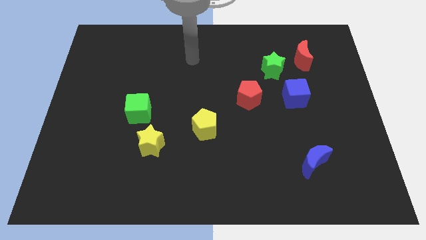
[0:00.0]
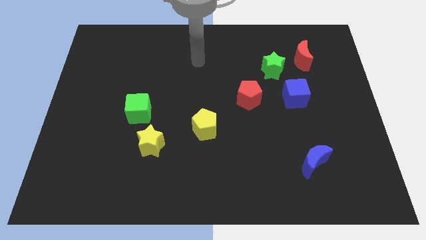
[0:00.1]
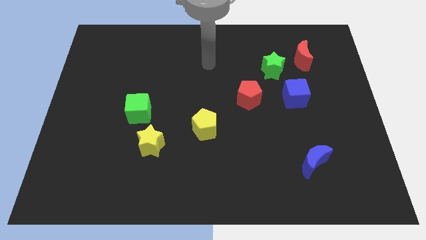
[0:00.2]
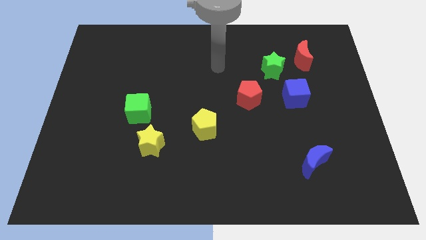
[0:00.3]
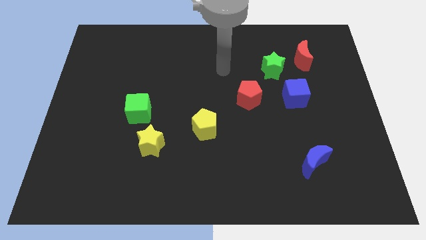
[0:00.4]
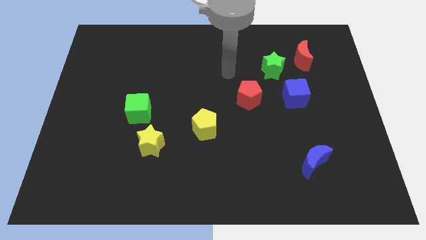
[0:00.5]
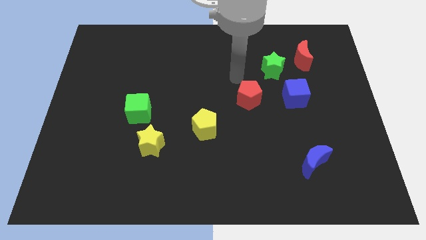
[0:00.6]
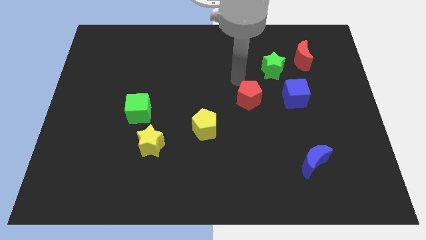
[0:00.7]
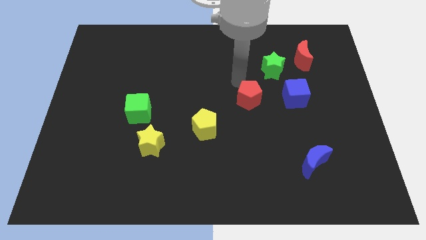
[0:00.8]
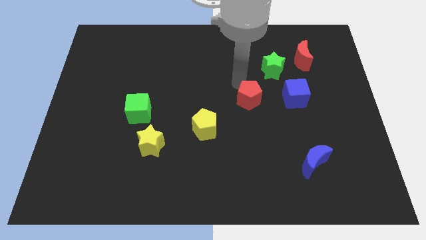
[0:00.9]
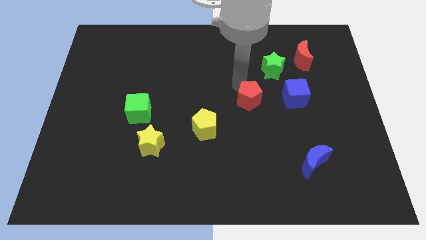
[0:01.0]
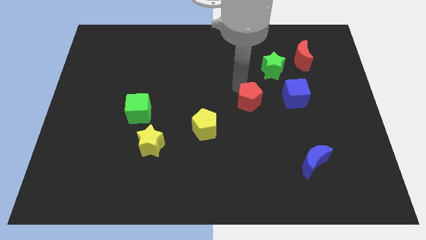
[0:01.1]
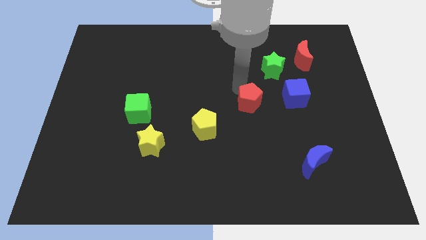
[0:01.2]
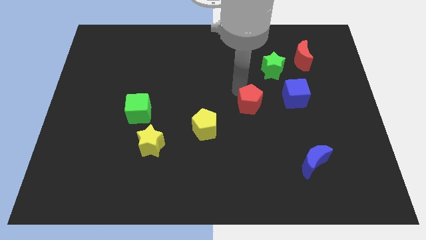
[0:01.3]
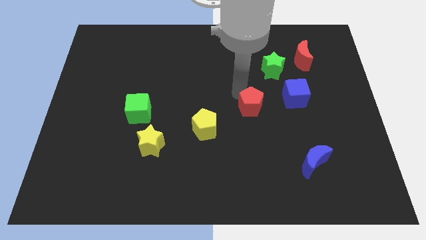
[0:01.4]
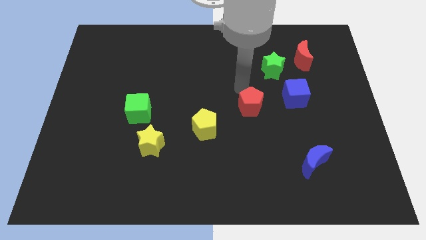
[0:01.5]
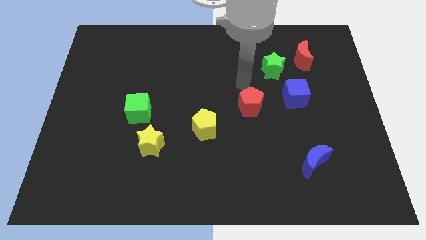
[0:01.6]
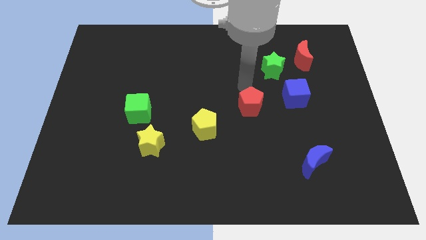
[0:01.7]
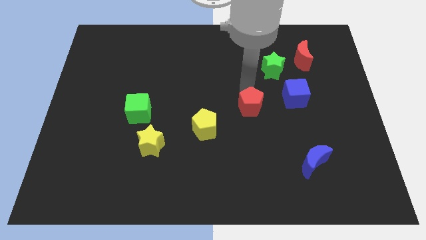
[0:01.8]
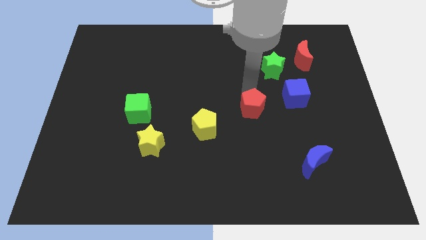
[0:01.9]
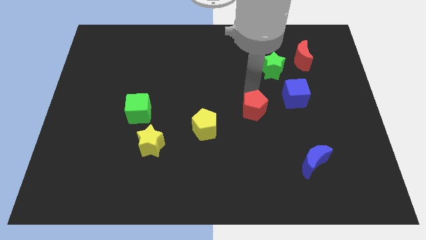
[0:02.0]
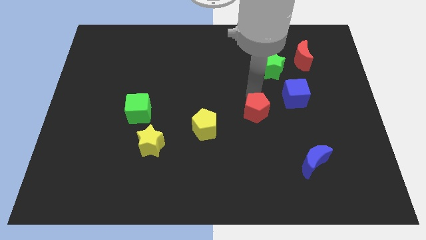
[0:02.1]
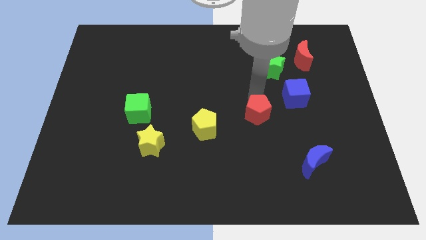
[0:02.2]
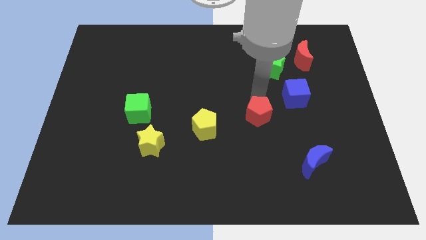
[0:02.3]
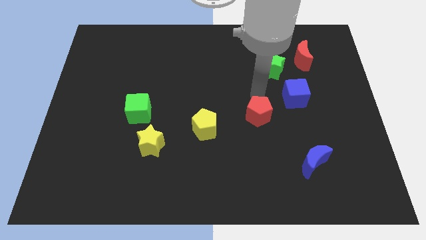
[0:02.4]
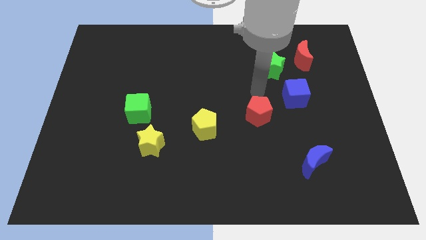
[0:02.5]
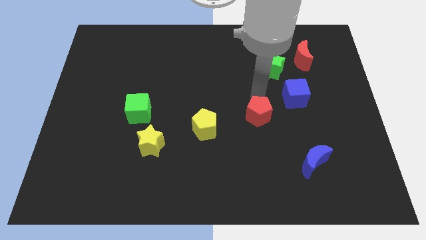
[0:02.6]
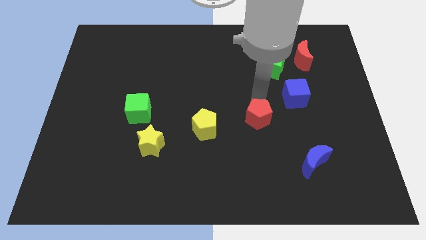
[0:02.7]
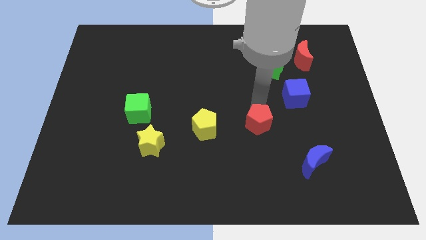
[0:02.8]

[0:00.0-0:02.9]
push the red pentagon somewhat down

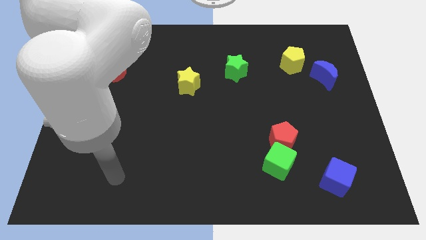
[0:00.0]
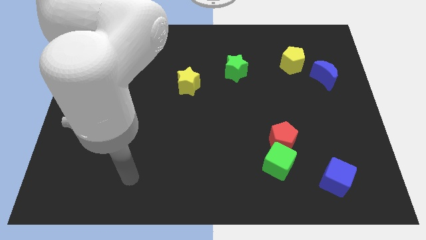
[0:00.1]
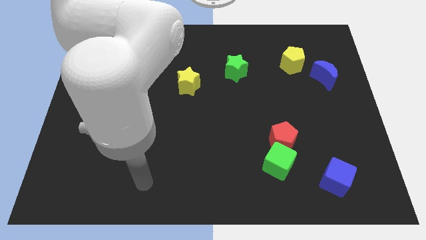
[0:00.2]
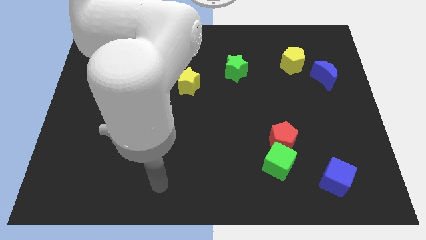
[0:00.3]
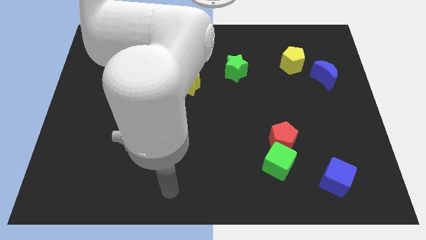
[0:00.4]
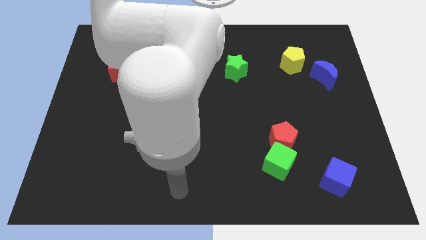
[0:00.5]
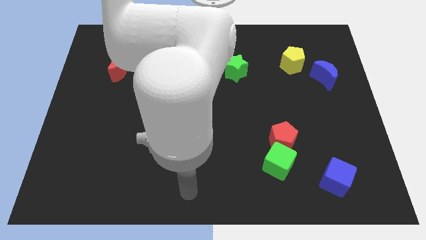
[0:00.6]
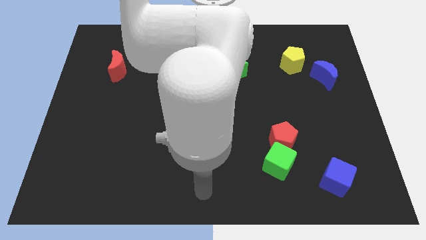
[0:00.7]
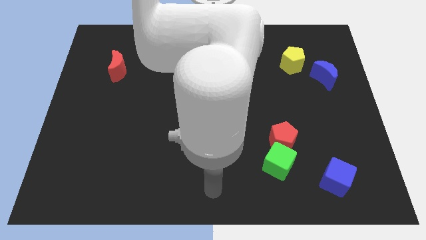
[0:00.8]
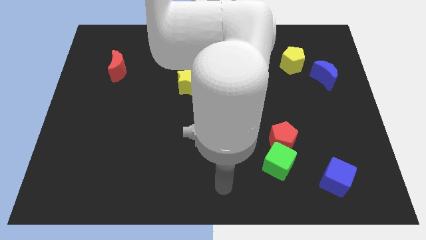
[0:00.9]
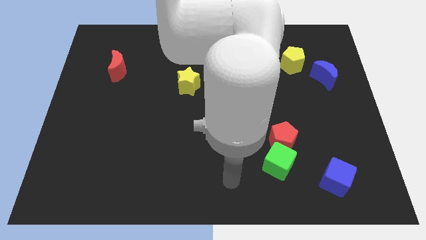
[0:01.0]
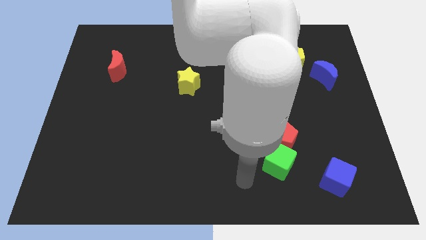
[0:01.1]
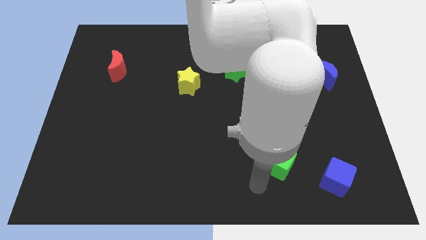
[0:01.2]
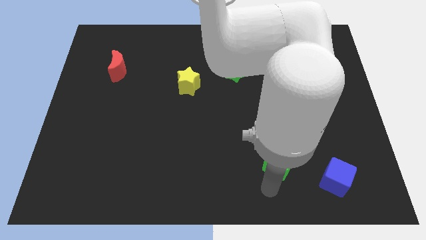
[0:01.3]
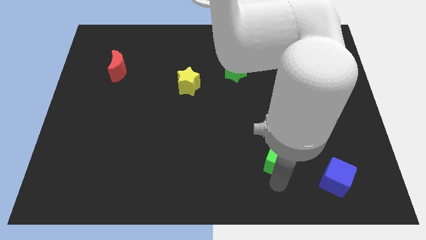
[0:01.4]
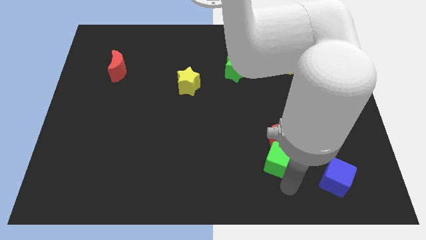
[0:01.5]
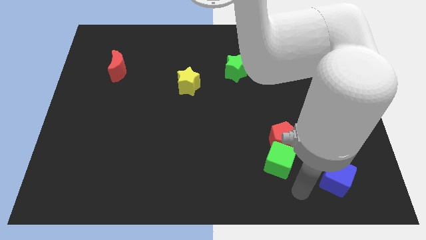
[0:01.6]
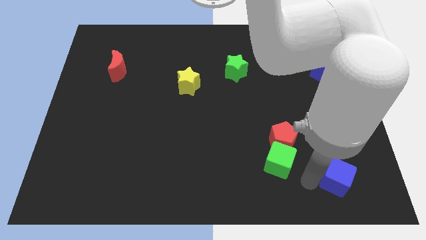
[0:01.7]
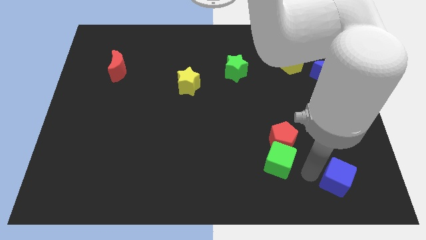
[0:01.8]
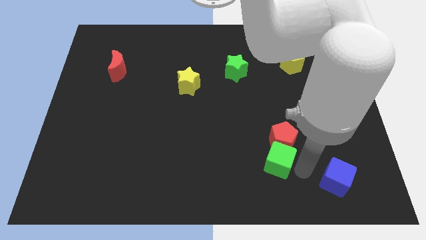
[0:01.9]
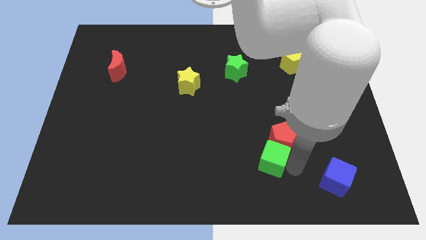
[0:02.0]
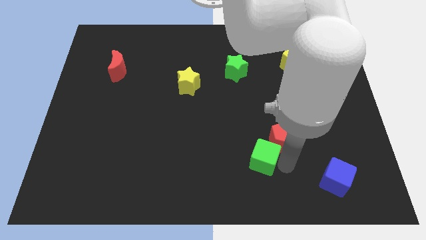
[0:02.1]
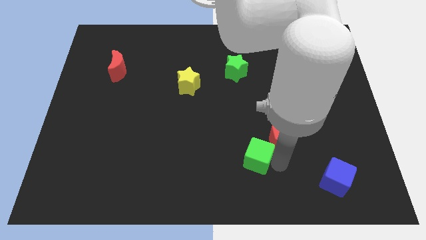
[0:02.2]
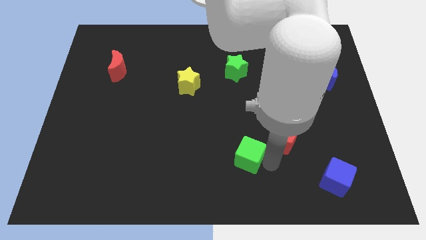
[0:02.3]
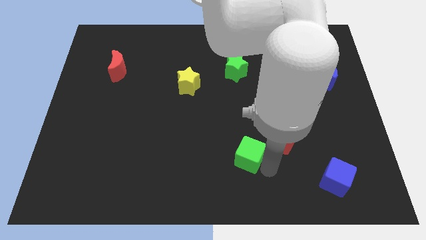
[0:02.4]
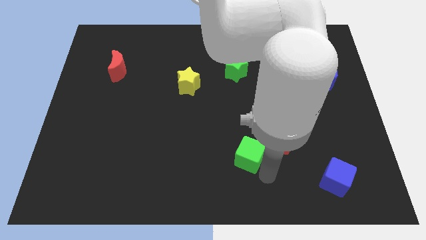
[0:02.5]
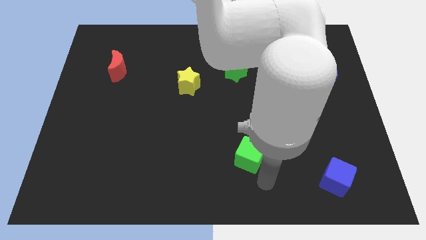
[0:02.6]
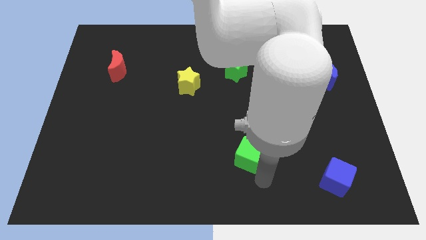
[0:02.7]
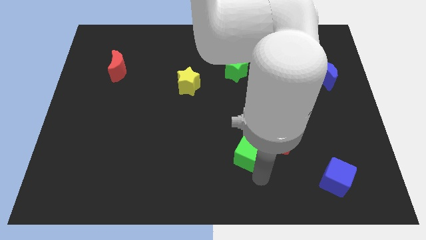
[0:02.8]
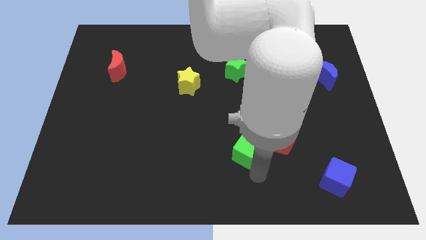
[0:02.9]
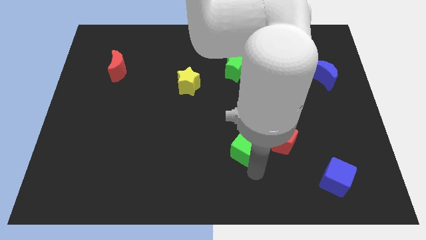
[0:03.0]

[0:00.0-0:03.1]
slide the green cube a bit up and then to the left

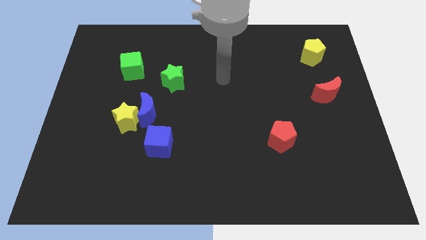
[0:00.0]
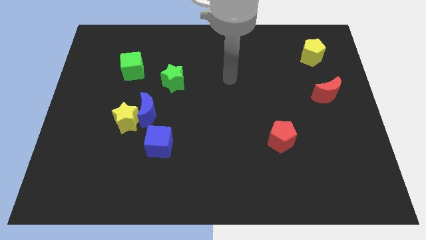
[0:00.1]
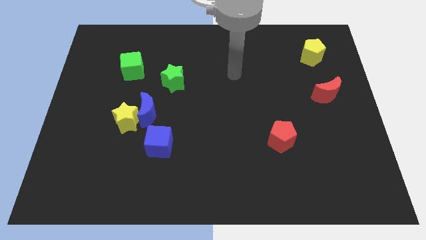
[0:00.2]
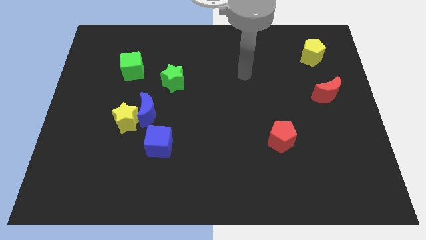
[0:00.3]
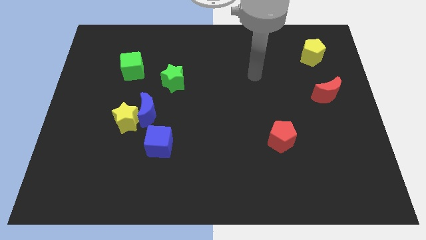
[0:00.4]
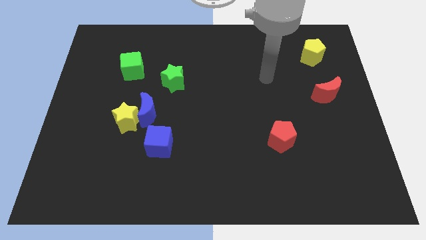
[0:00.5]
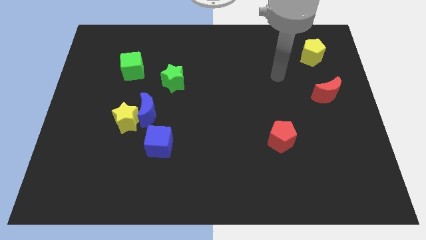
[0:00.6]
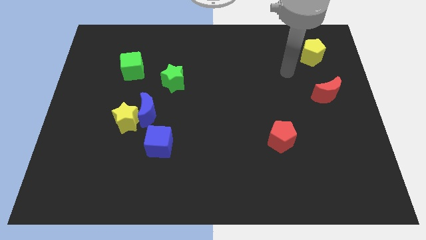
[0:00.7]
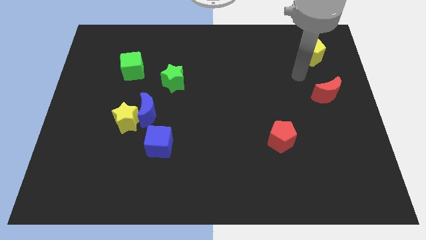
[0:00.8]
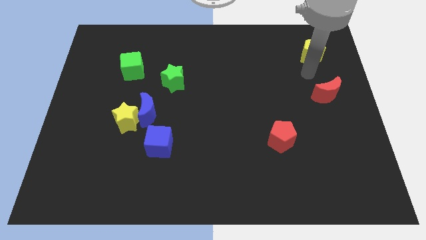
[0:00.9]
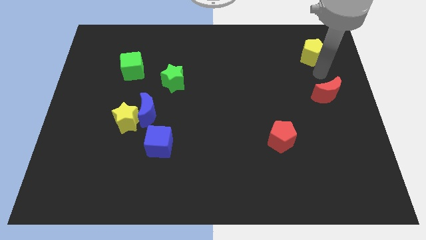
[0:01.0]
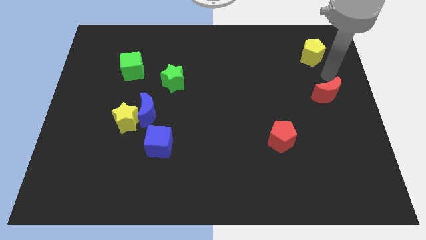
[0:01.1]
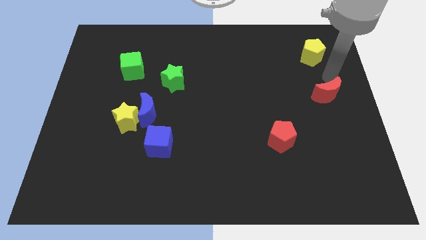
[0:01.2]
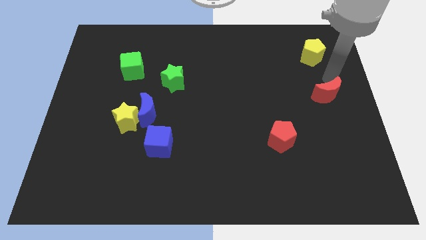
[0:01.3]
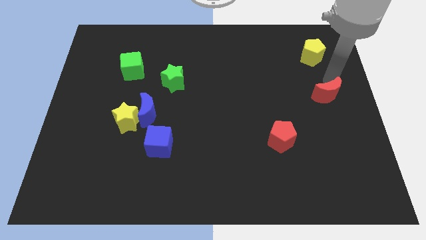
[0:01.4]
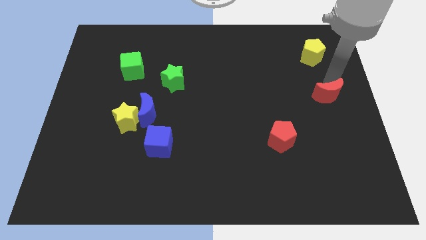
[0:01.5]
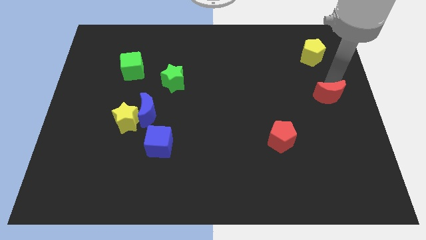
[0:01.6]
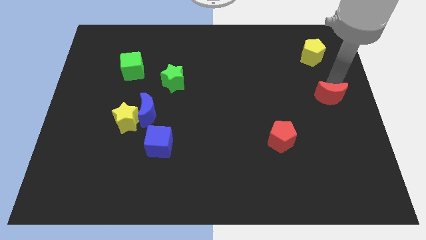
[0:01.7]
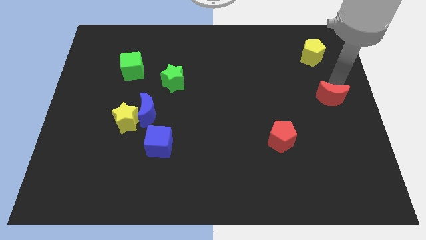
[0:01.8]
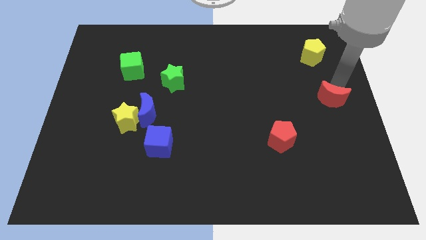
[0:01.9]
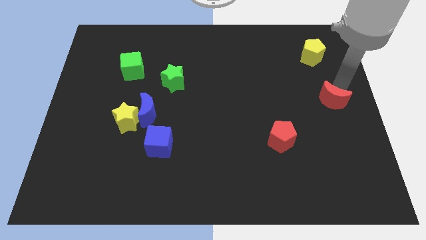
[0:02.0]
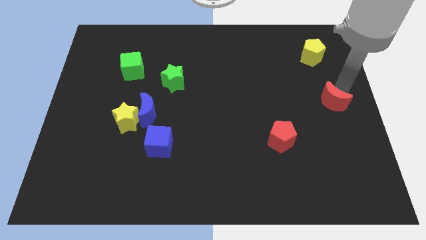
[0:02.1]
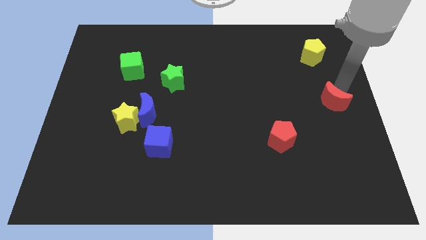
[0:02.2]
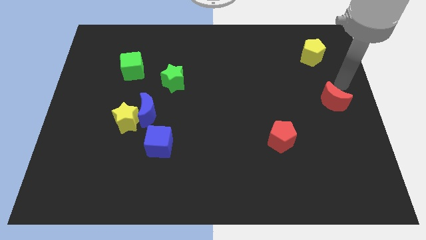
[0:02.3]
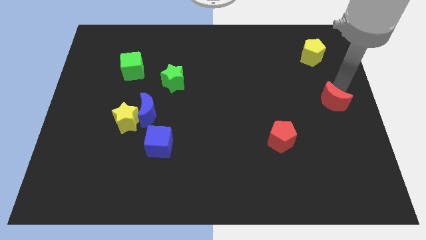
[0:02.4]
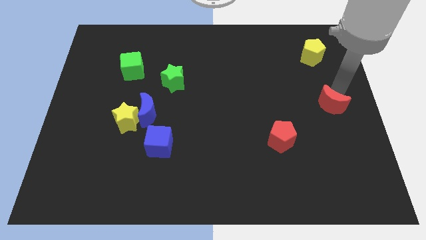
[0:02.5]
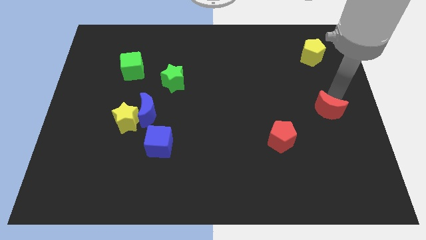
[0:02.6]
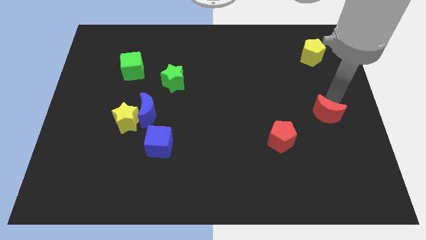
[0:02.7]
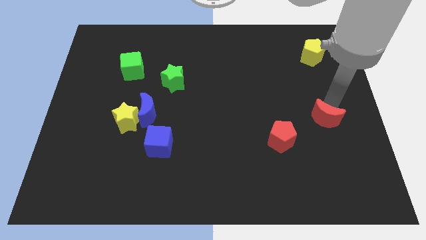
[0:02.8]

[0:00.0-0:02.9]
slightly move the red moon down
